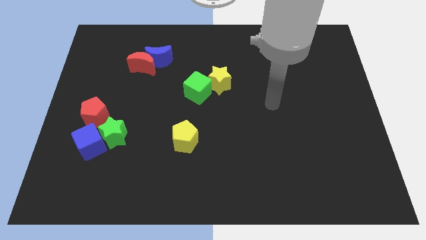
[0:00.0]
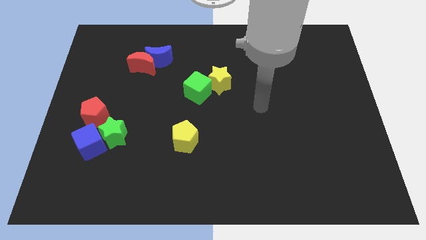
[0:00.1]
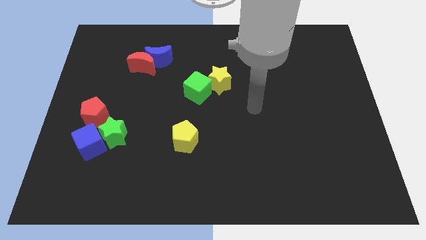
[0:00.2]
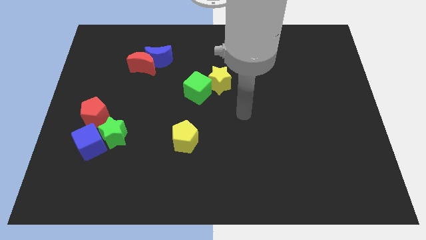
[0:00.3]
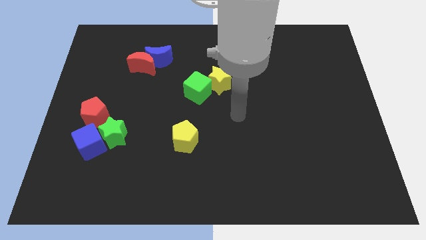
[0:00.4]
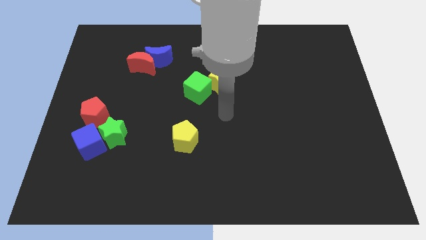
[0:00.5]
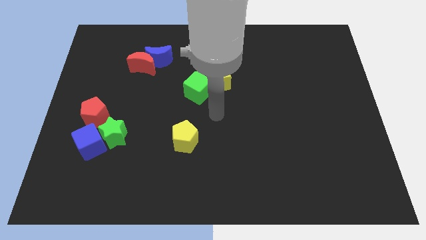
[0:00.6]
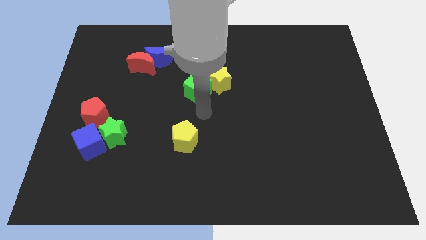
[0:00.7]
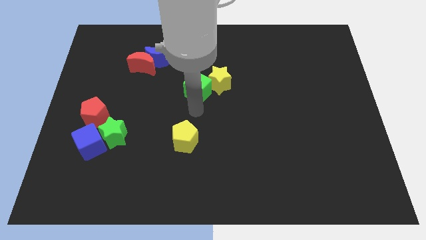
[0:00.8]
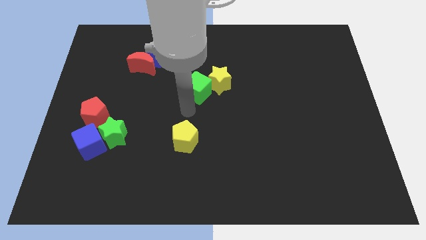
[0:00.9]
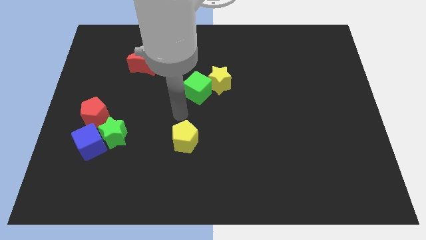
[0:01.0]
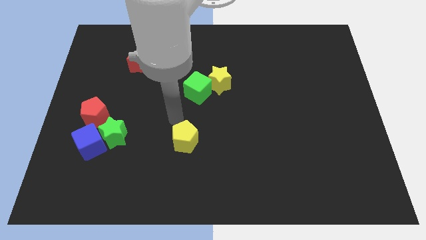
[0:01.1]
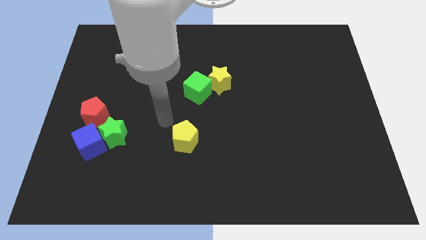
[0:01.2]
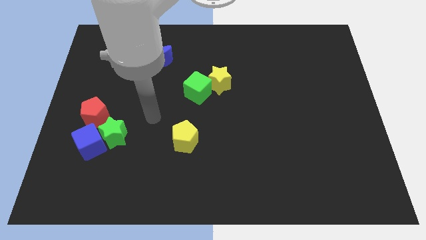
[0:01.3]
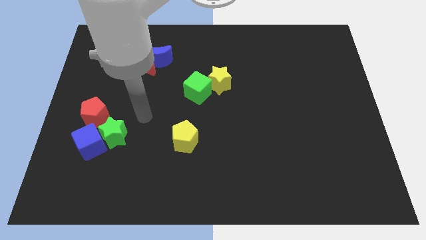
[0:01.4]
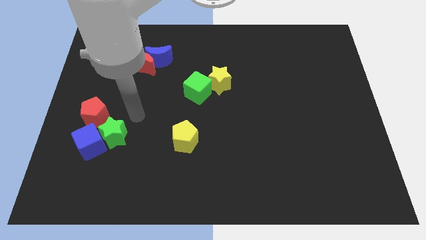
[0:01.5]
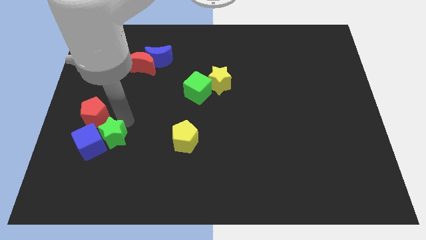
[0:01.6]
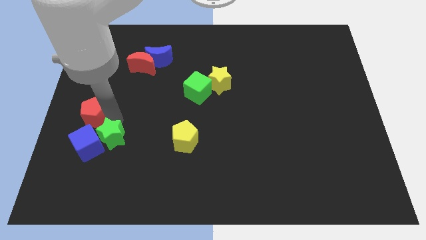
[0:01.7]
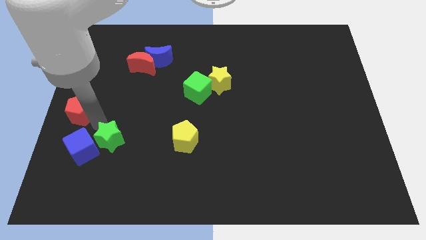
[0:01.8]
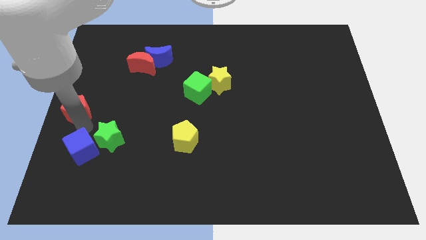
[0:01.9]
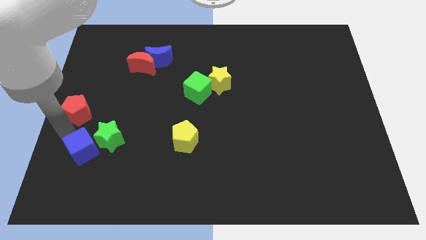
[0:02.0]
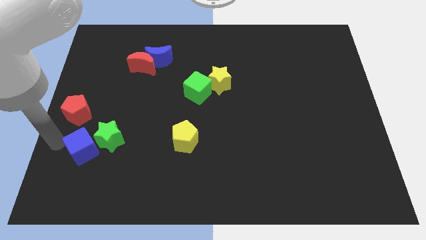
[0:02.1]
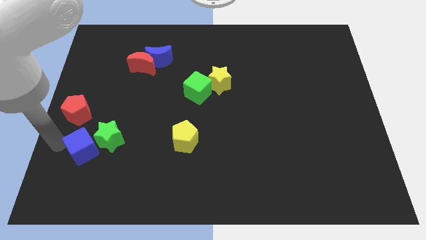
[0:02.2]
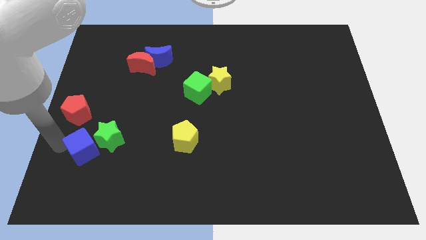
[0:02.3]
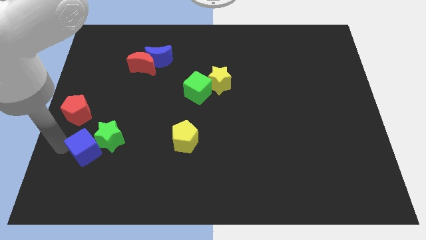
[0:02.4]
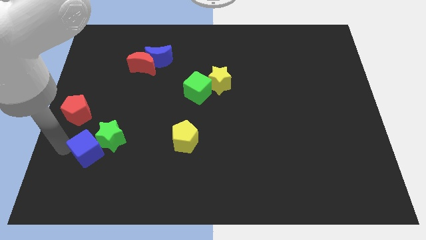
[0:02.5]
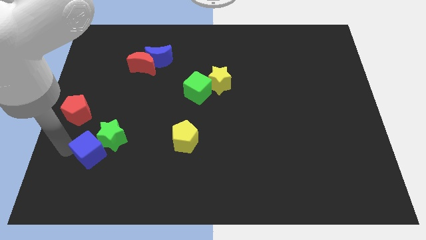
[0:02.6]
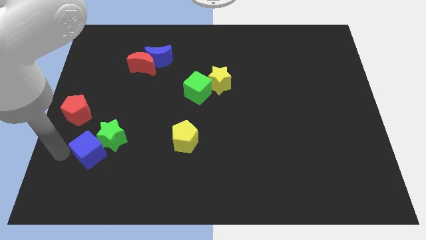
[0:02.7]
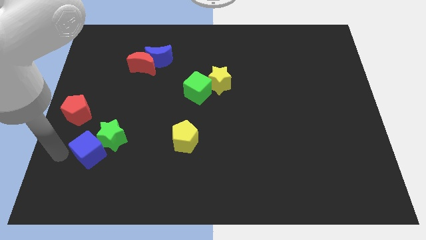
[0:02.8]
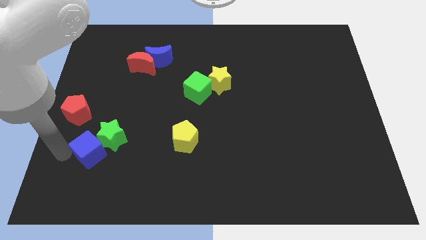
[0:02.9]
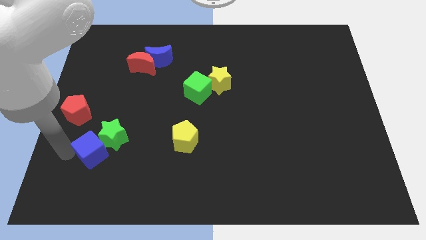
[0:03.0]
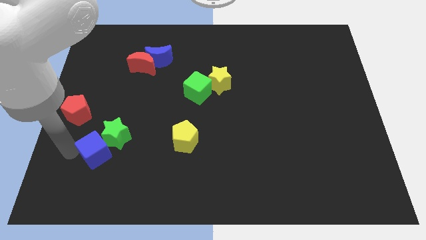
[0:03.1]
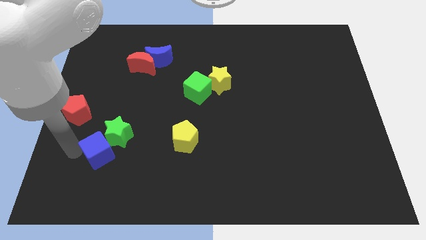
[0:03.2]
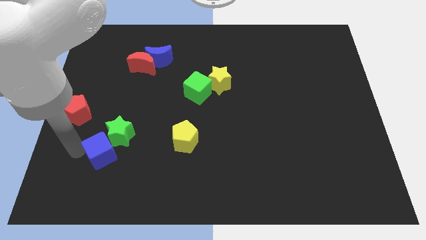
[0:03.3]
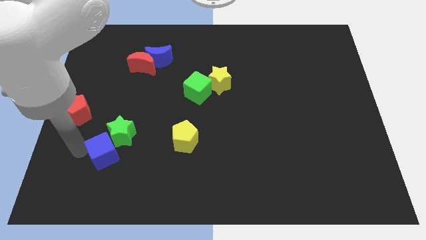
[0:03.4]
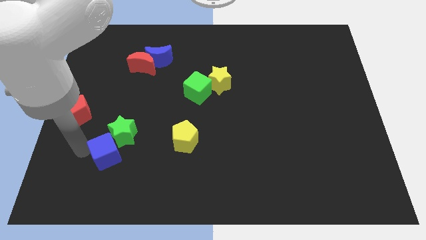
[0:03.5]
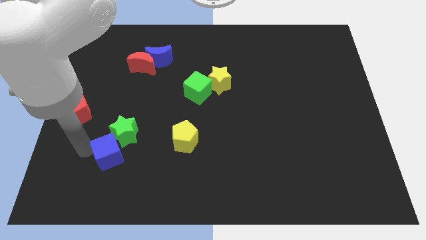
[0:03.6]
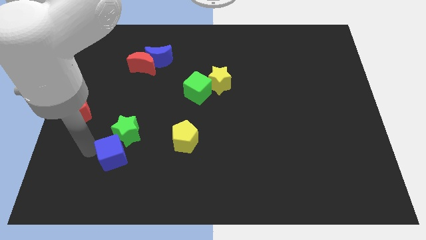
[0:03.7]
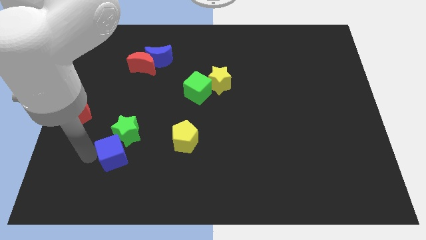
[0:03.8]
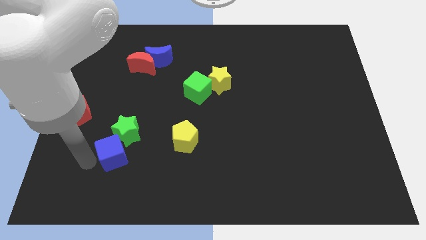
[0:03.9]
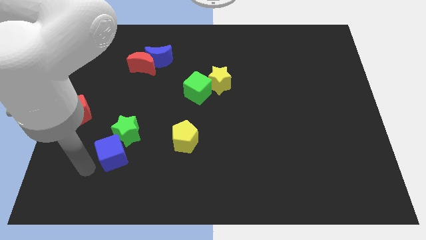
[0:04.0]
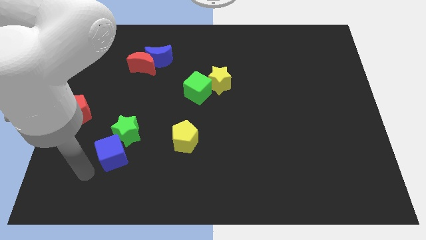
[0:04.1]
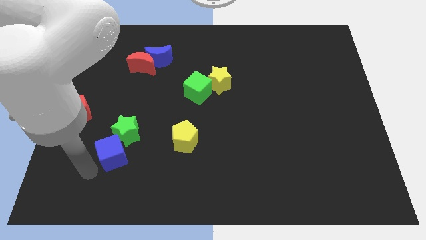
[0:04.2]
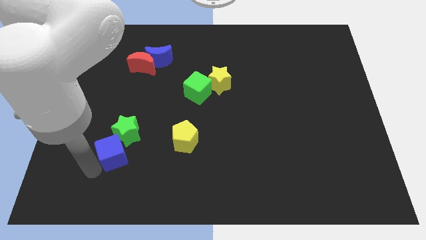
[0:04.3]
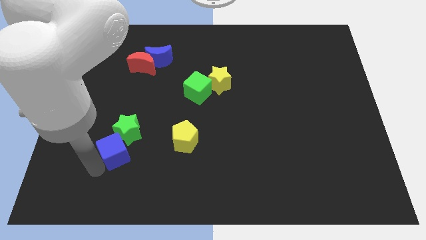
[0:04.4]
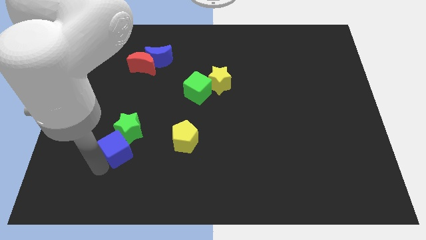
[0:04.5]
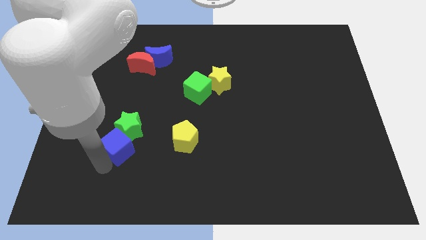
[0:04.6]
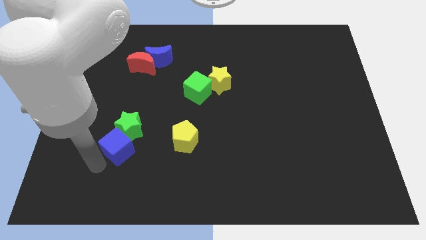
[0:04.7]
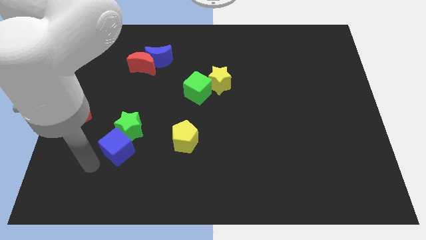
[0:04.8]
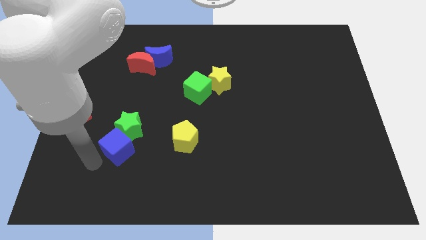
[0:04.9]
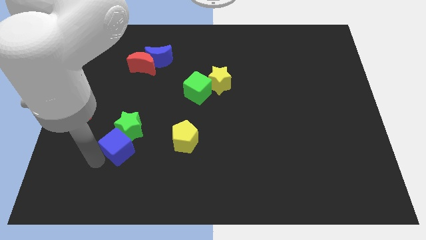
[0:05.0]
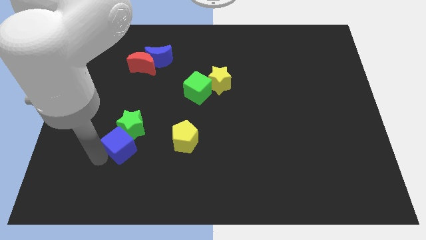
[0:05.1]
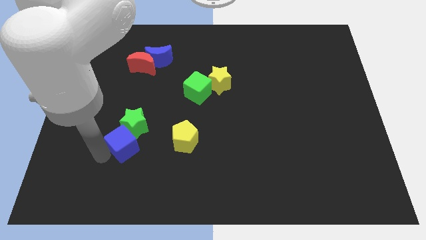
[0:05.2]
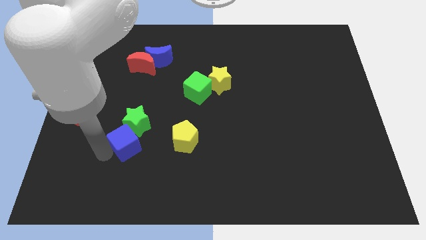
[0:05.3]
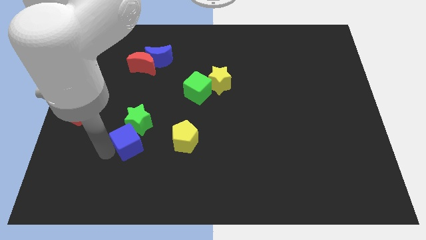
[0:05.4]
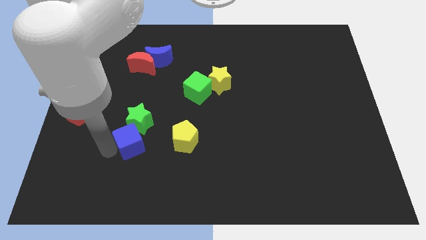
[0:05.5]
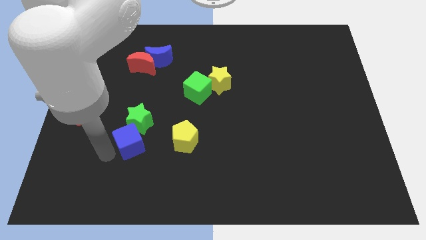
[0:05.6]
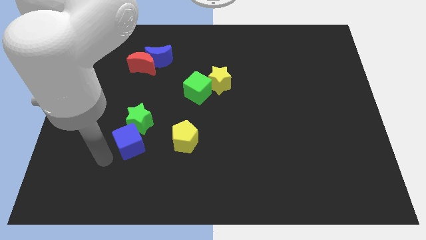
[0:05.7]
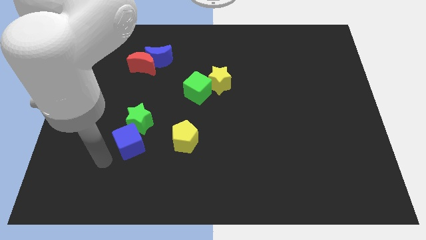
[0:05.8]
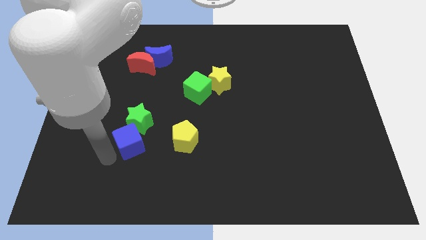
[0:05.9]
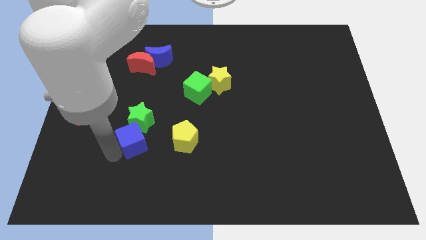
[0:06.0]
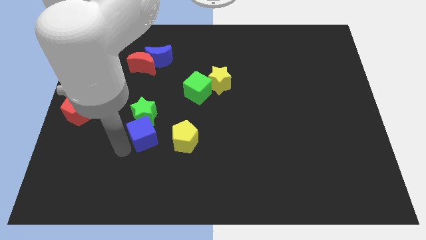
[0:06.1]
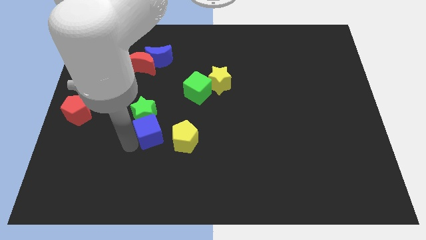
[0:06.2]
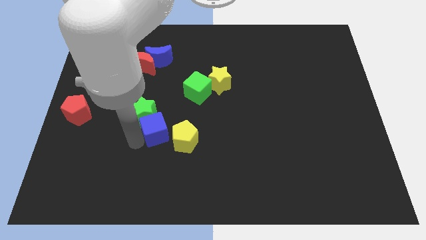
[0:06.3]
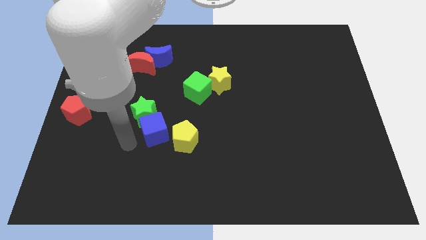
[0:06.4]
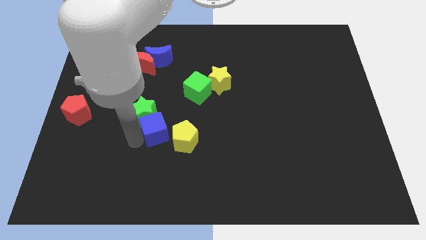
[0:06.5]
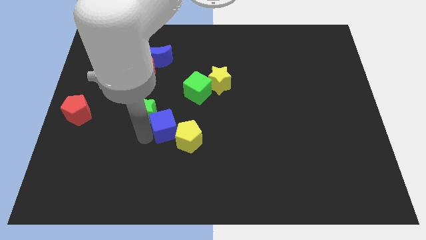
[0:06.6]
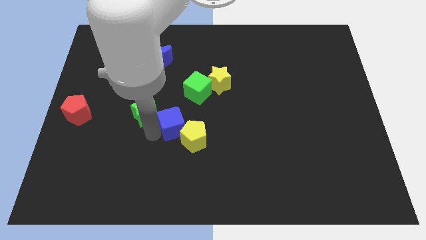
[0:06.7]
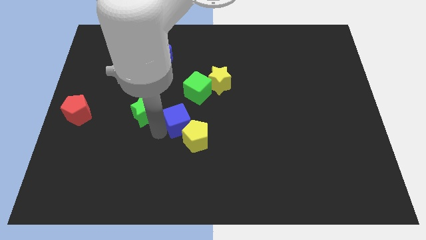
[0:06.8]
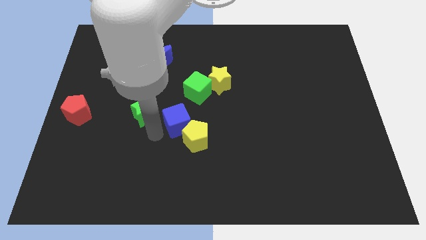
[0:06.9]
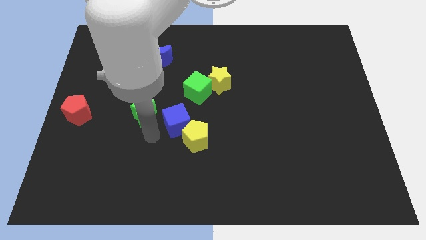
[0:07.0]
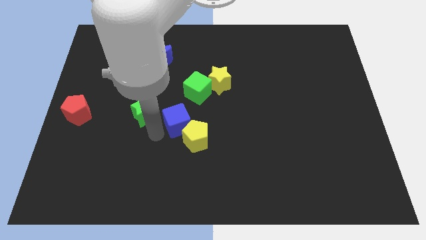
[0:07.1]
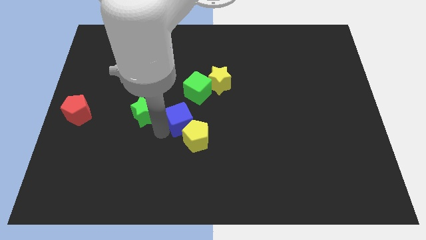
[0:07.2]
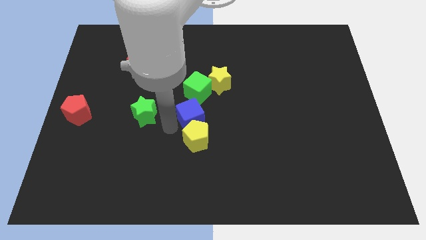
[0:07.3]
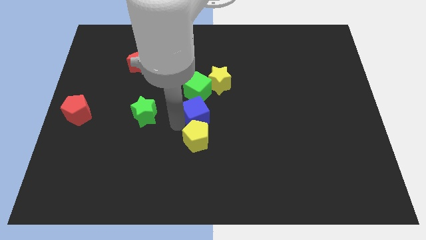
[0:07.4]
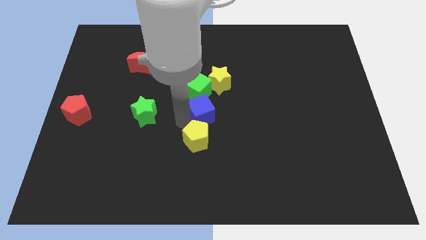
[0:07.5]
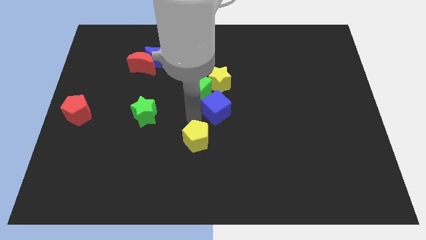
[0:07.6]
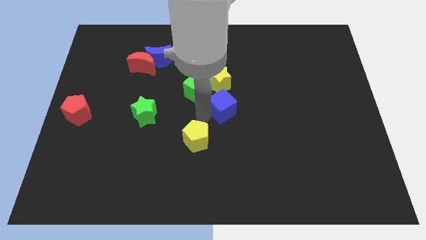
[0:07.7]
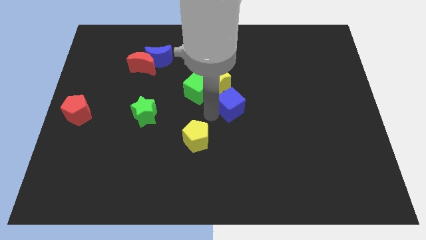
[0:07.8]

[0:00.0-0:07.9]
move the blue cube just right of the green cube
